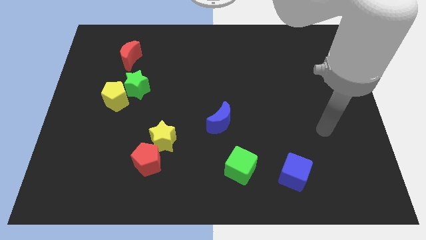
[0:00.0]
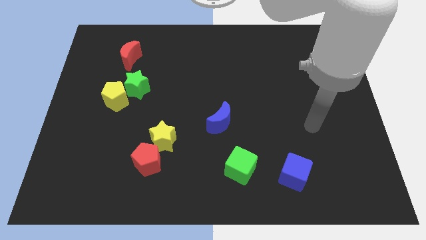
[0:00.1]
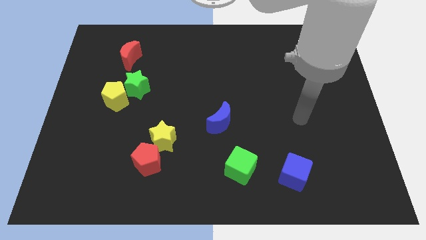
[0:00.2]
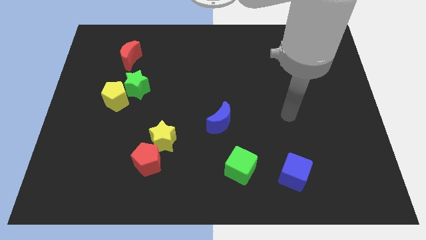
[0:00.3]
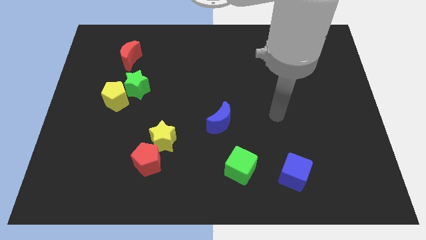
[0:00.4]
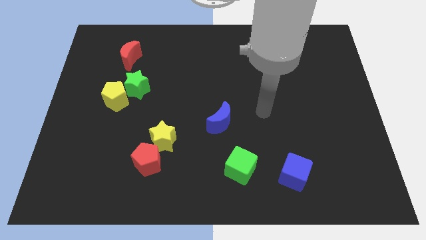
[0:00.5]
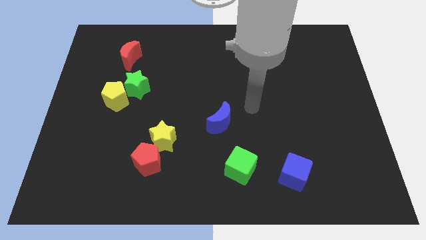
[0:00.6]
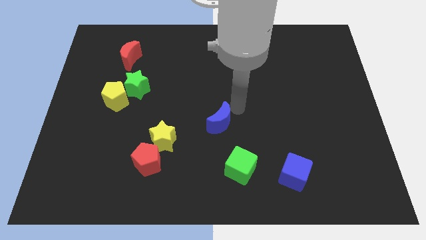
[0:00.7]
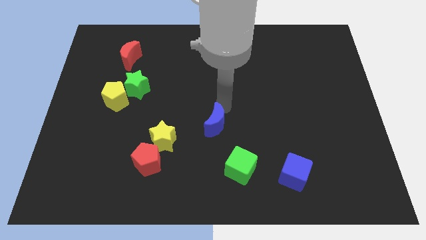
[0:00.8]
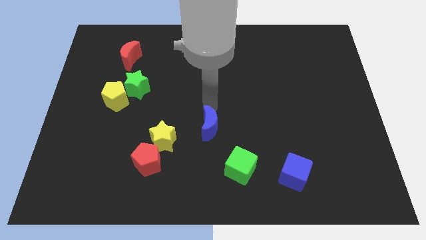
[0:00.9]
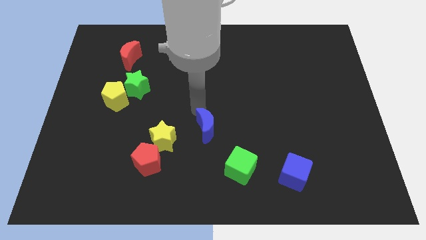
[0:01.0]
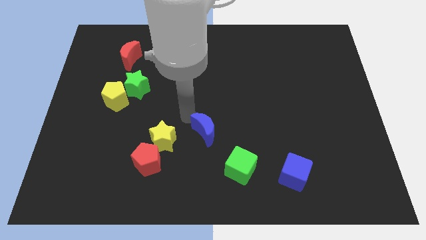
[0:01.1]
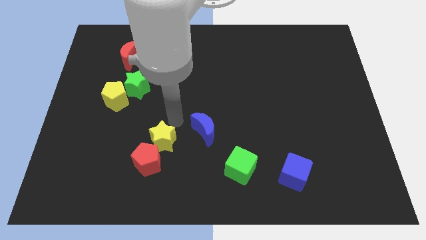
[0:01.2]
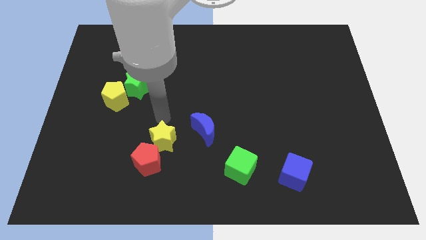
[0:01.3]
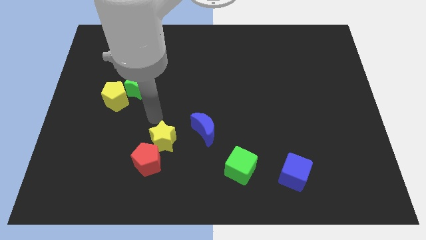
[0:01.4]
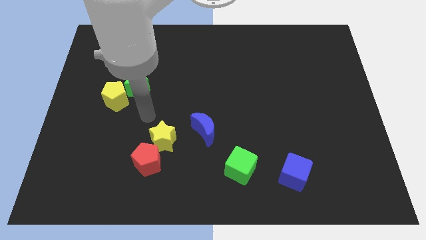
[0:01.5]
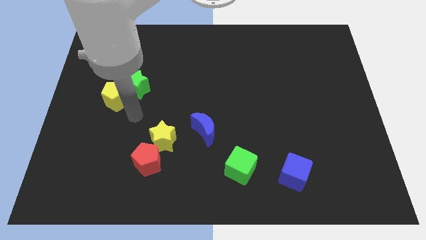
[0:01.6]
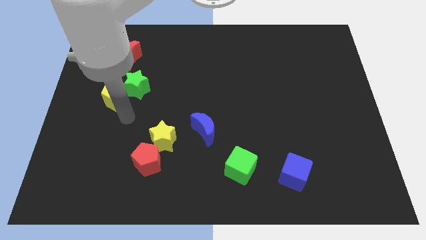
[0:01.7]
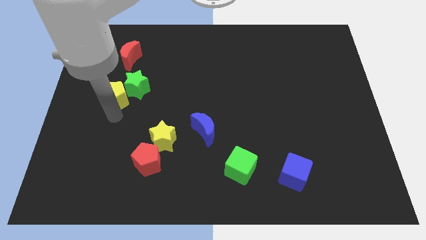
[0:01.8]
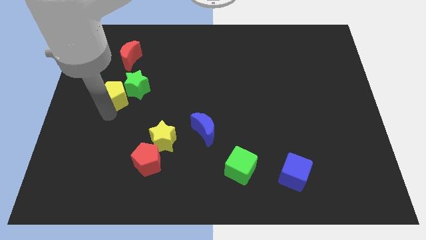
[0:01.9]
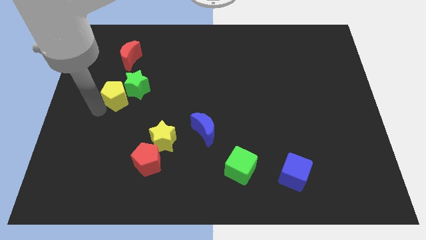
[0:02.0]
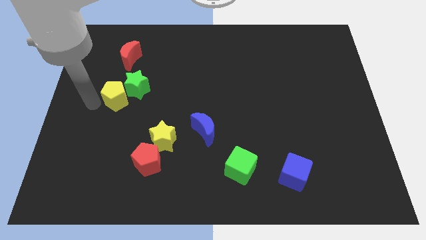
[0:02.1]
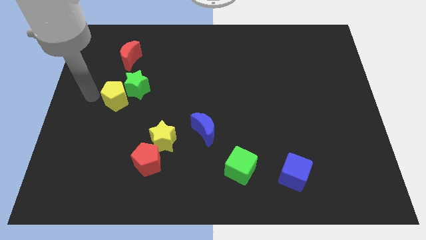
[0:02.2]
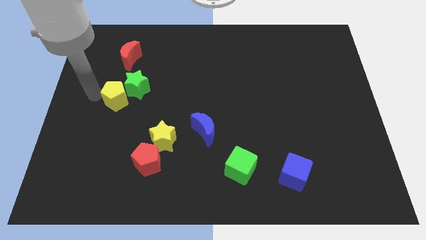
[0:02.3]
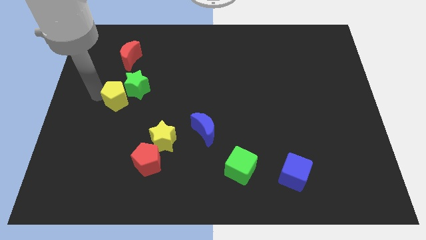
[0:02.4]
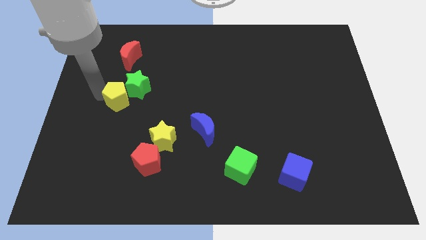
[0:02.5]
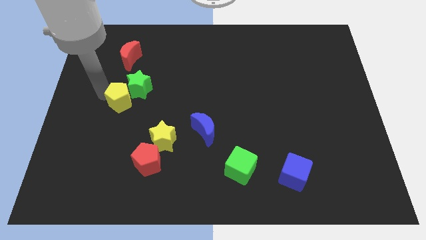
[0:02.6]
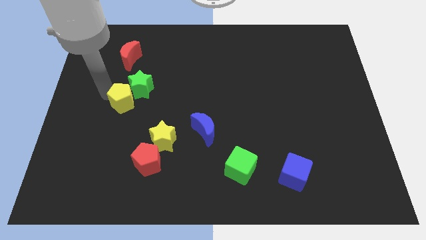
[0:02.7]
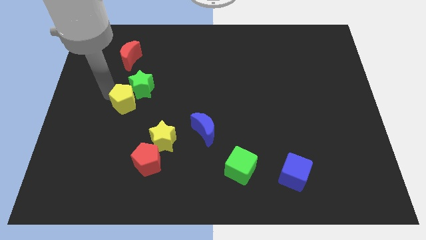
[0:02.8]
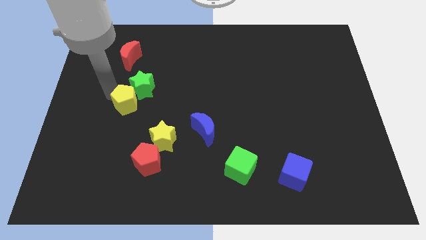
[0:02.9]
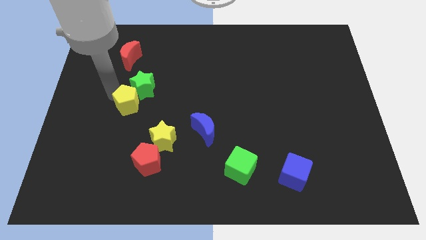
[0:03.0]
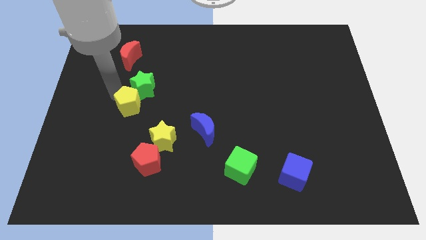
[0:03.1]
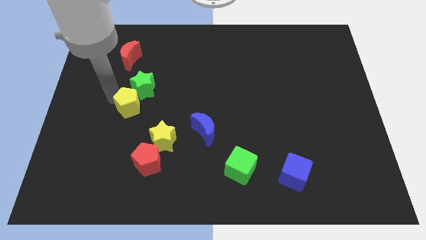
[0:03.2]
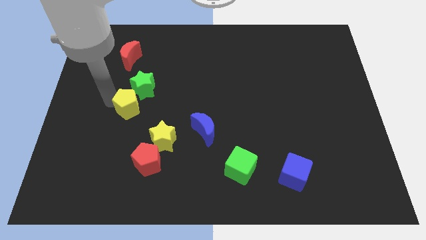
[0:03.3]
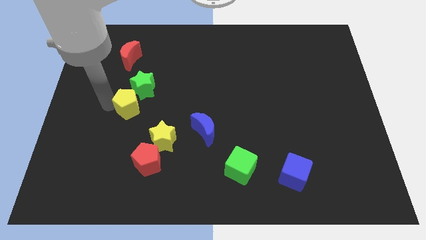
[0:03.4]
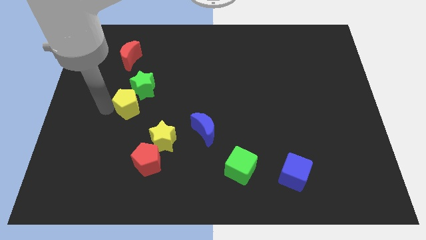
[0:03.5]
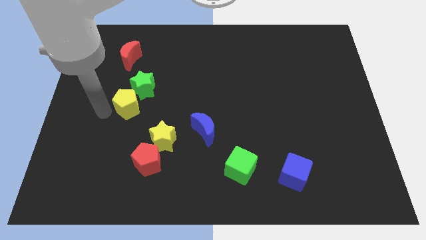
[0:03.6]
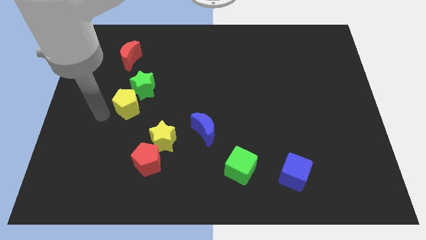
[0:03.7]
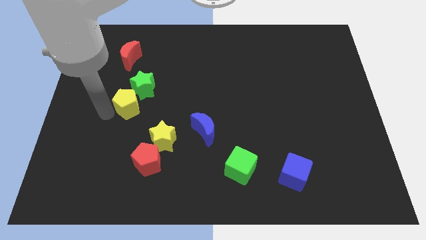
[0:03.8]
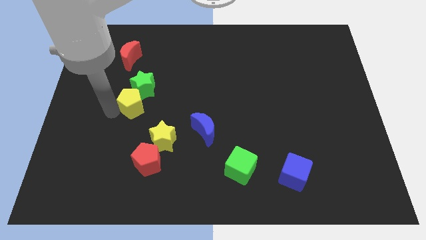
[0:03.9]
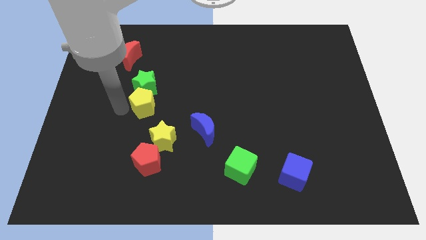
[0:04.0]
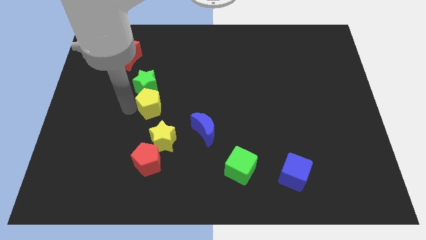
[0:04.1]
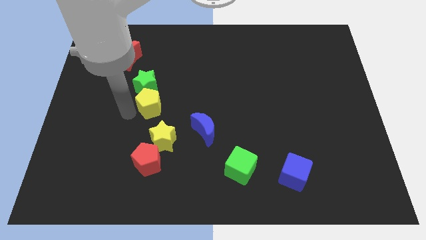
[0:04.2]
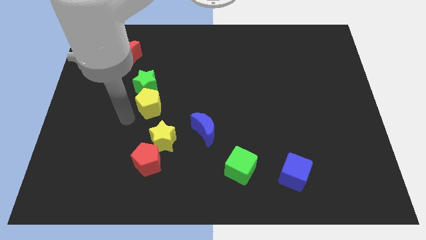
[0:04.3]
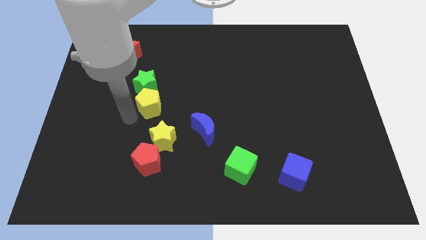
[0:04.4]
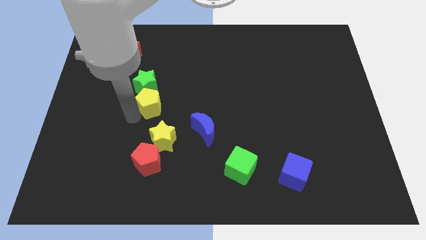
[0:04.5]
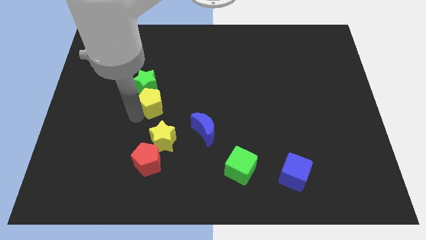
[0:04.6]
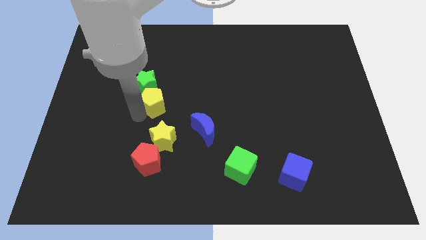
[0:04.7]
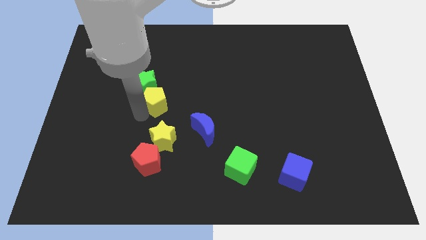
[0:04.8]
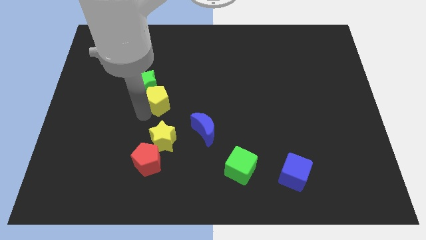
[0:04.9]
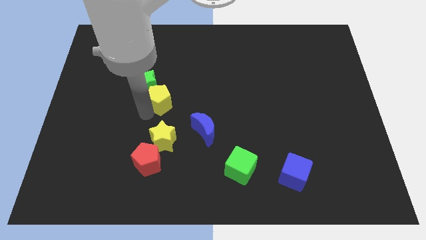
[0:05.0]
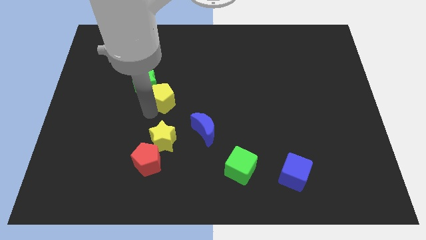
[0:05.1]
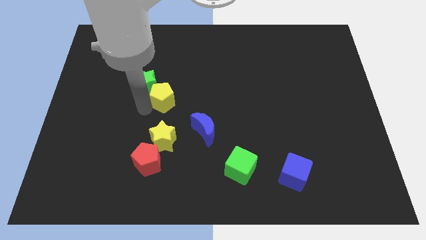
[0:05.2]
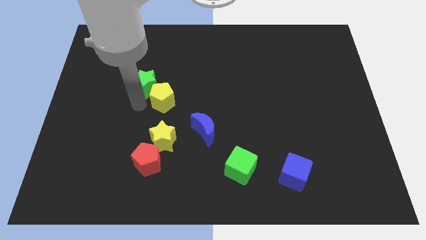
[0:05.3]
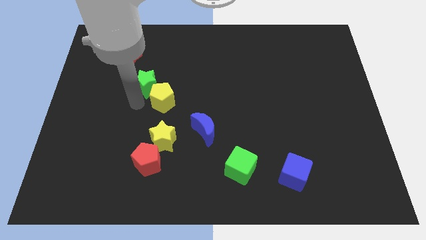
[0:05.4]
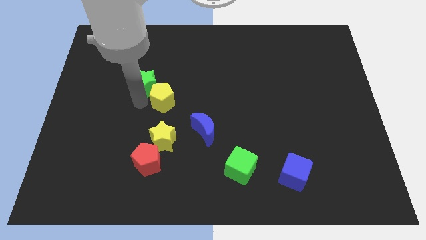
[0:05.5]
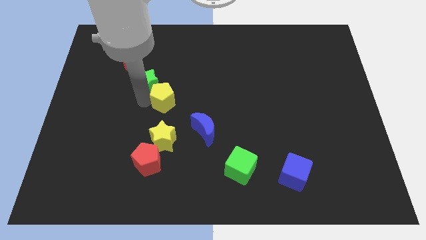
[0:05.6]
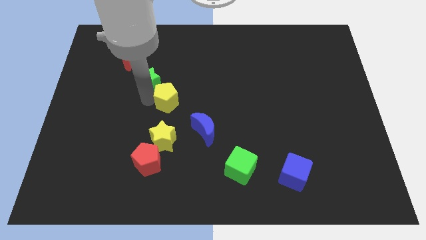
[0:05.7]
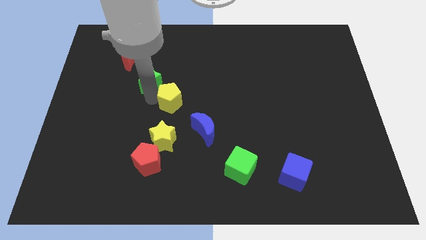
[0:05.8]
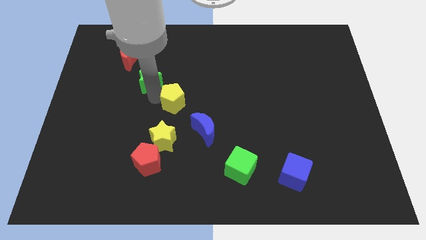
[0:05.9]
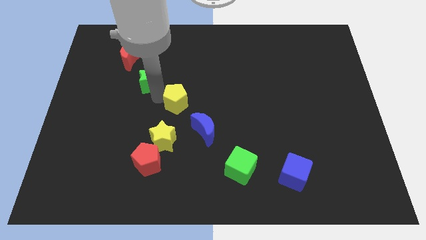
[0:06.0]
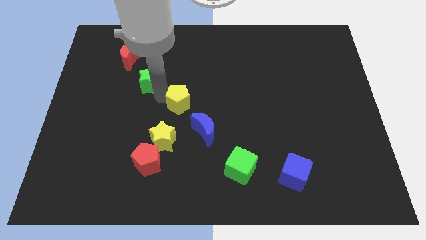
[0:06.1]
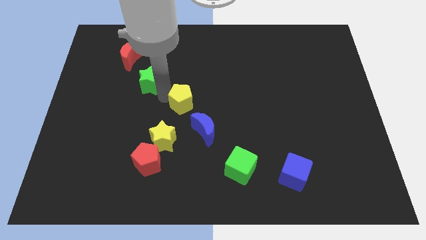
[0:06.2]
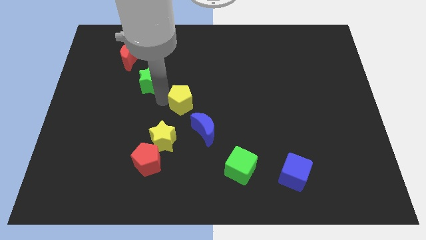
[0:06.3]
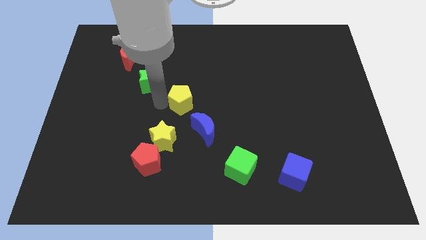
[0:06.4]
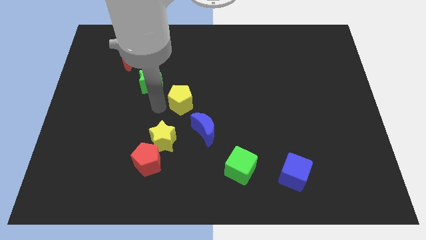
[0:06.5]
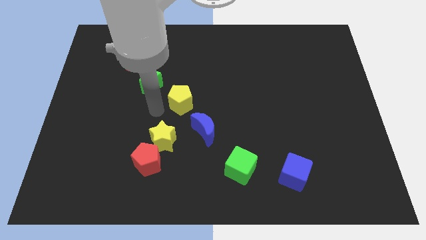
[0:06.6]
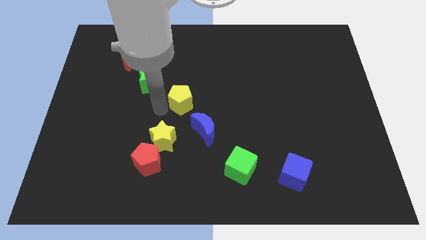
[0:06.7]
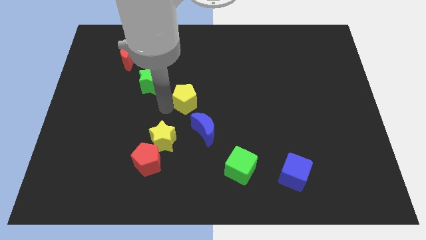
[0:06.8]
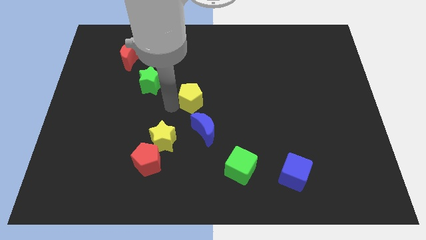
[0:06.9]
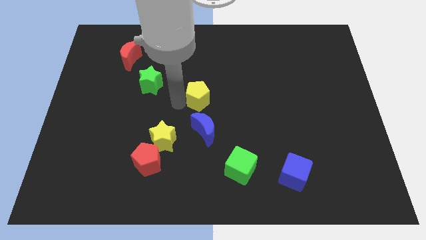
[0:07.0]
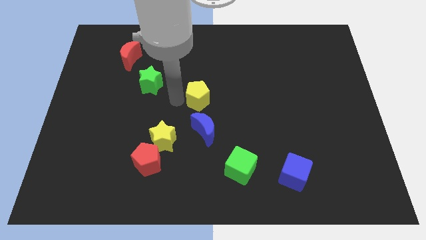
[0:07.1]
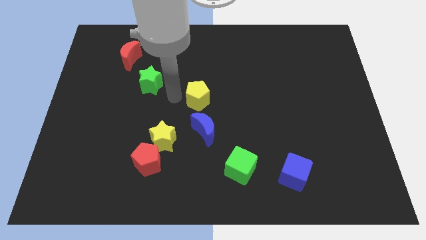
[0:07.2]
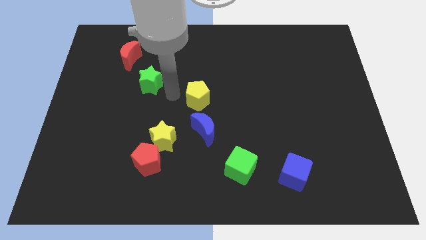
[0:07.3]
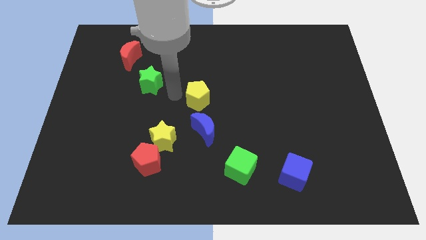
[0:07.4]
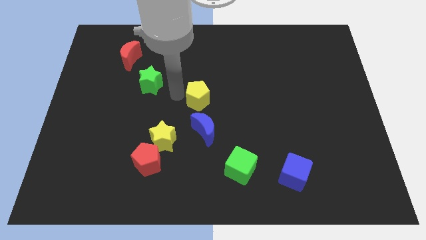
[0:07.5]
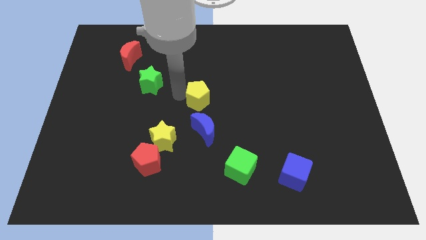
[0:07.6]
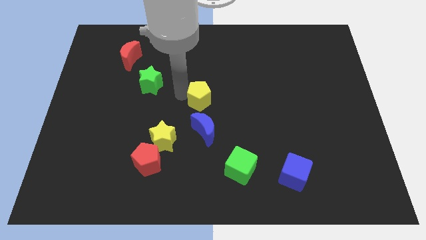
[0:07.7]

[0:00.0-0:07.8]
move the yellow pentagon right
